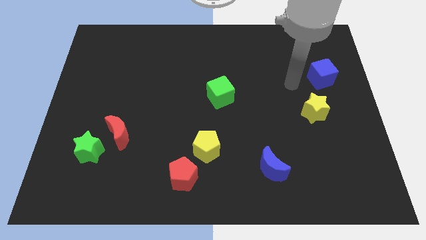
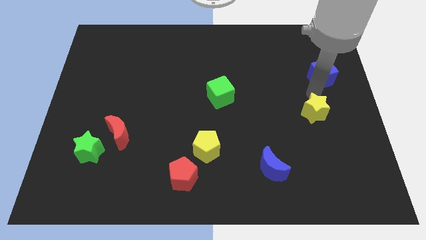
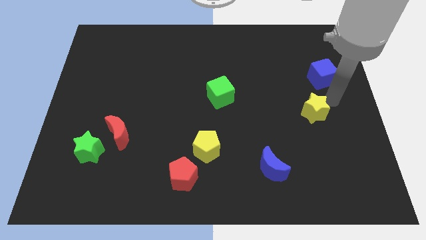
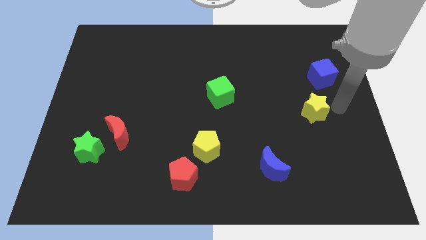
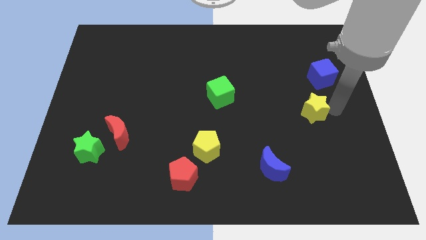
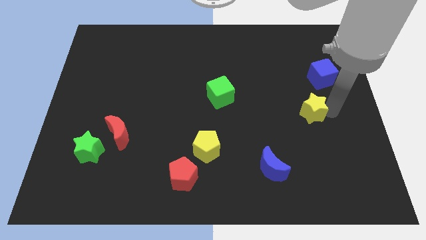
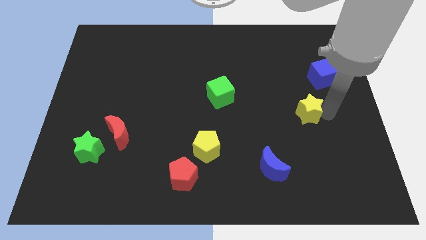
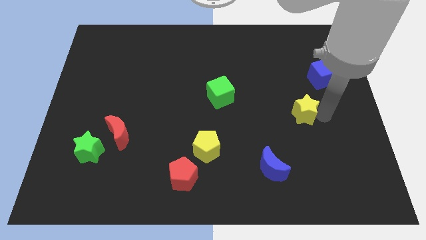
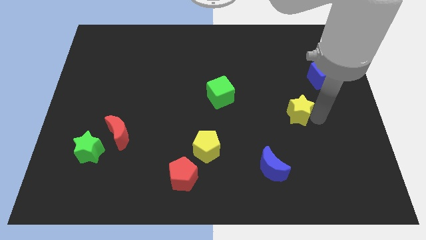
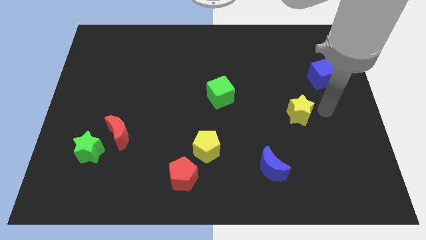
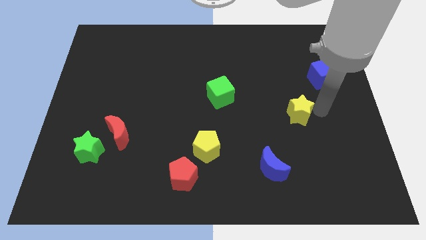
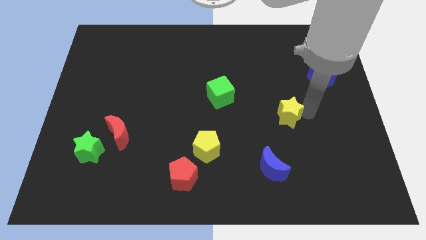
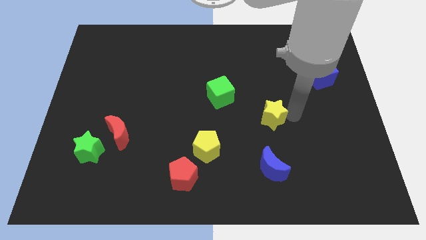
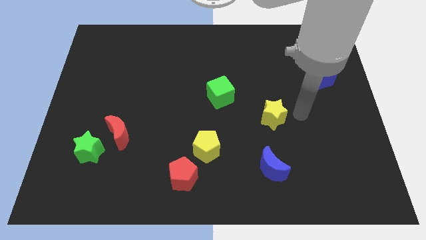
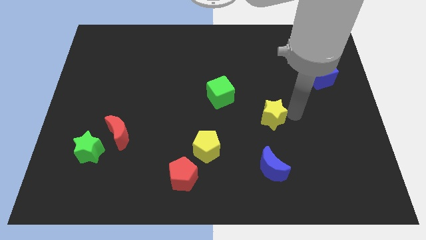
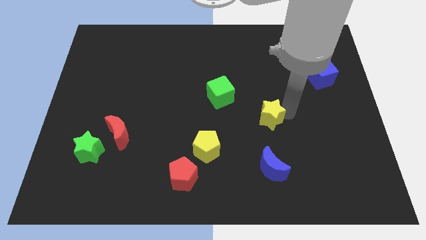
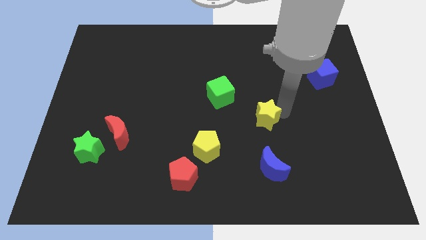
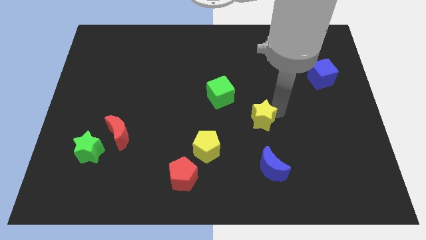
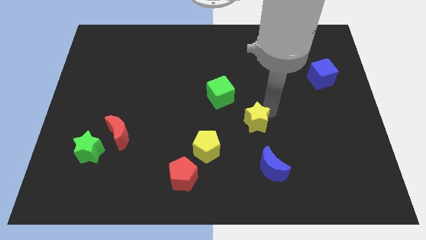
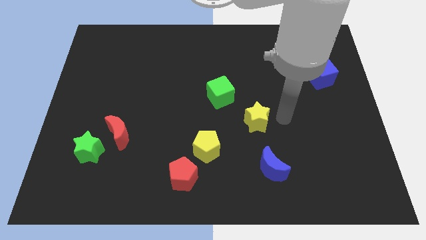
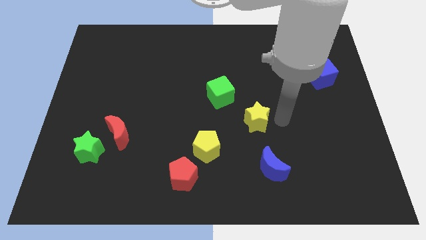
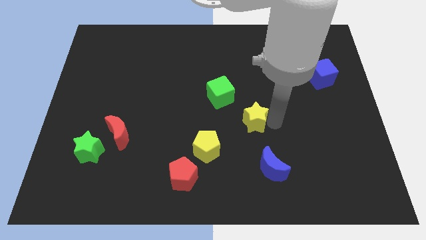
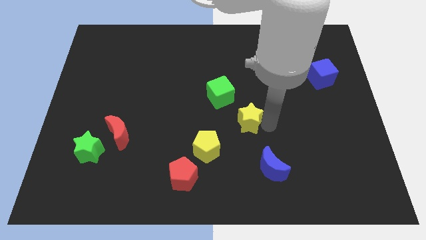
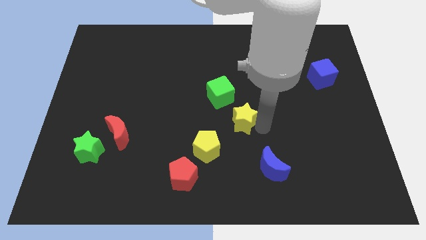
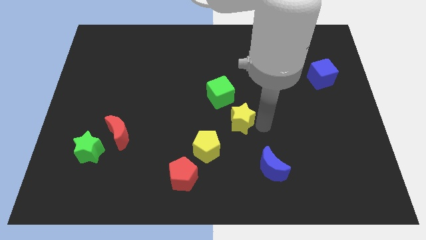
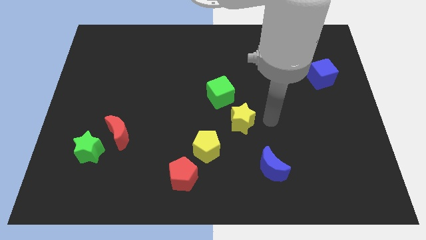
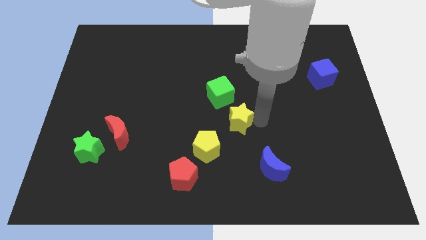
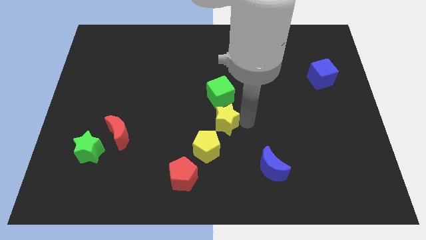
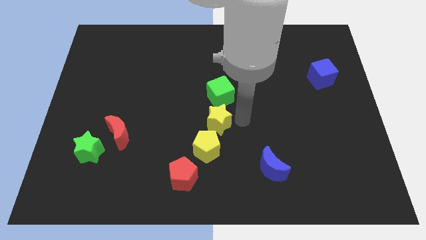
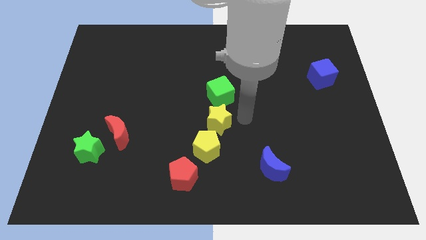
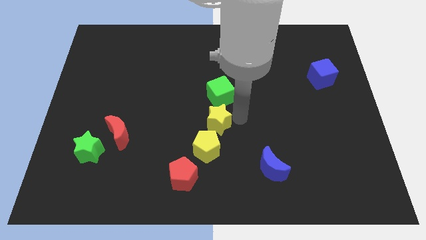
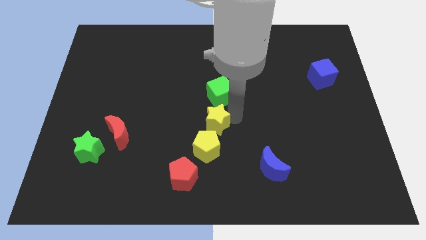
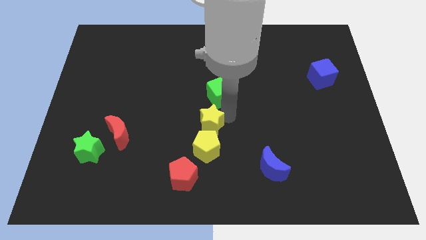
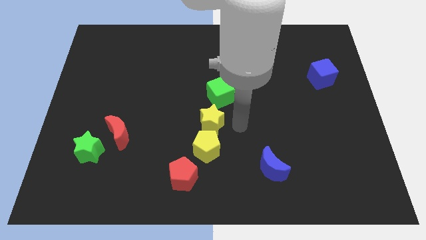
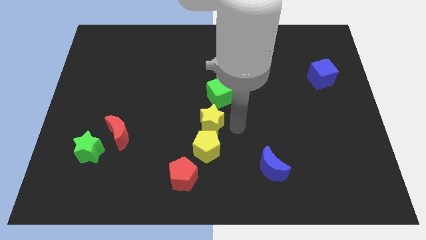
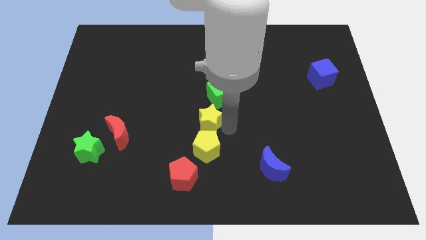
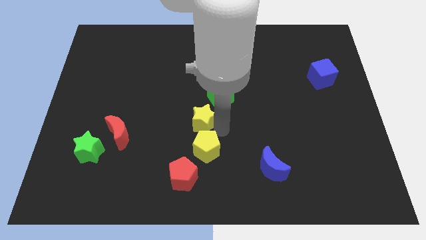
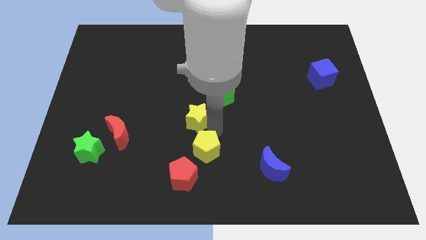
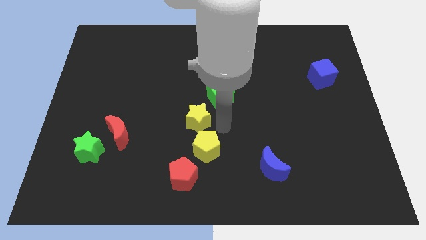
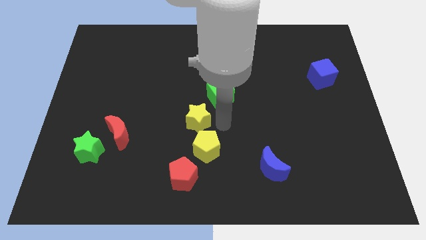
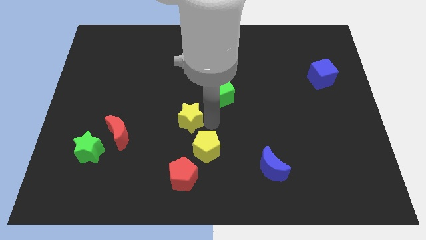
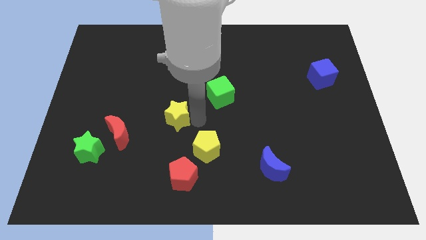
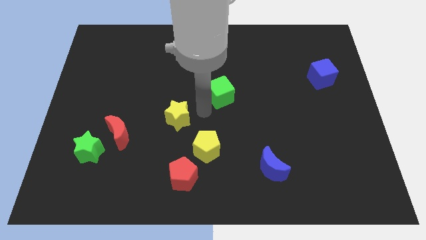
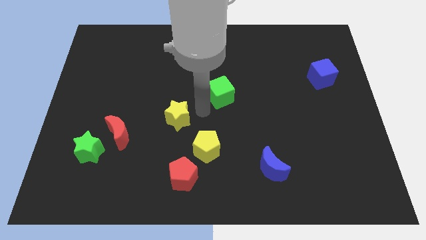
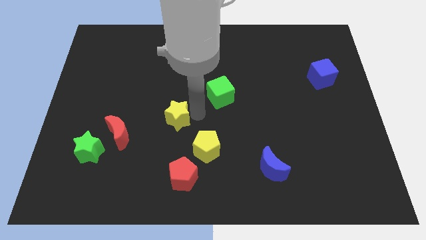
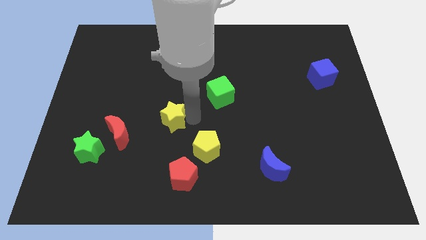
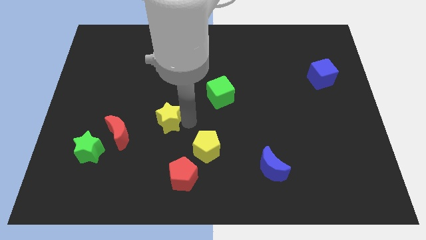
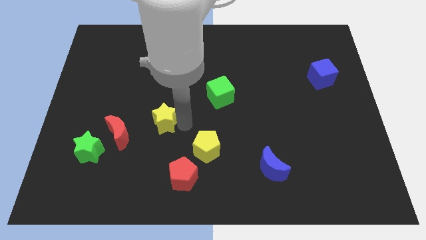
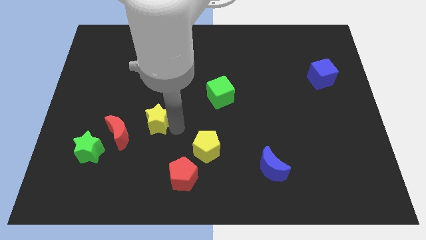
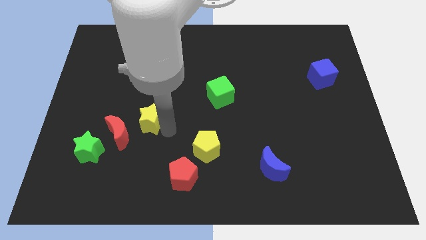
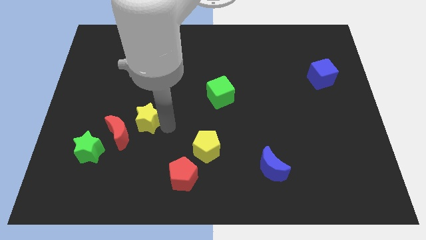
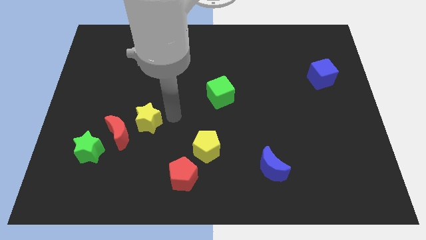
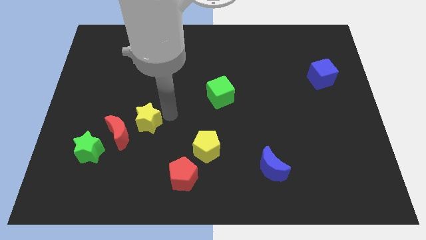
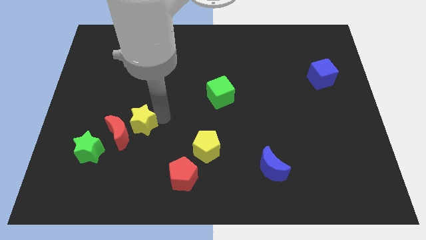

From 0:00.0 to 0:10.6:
move the yellow star next to the red moon

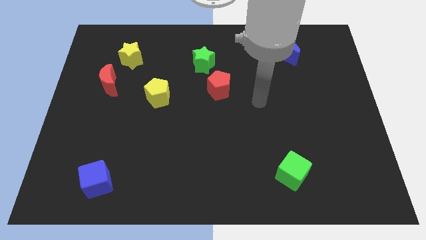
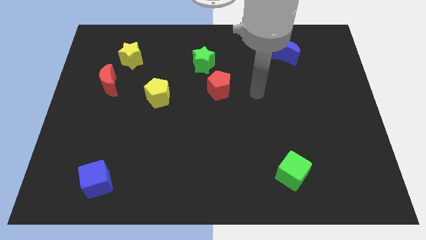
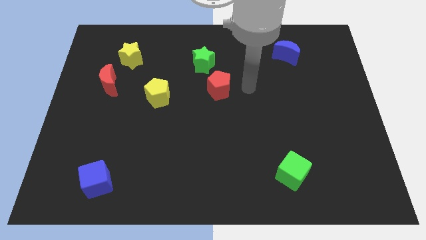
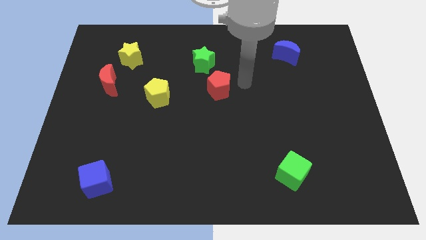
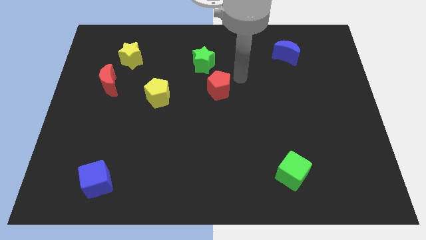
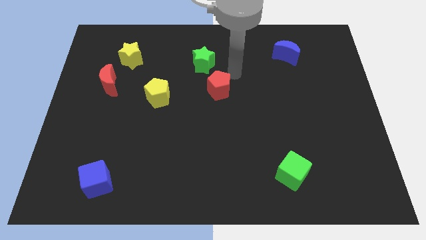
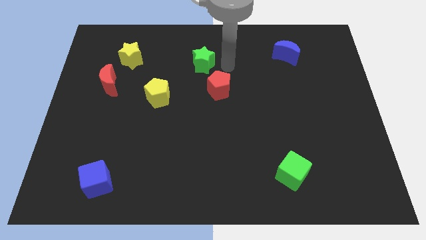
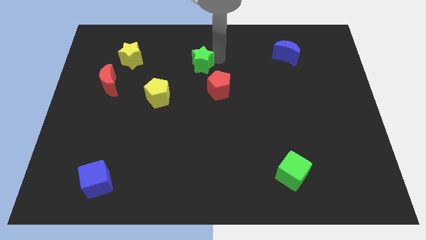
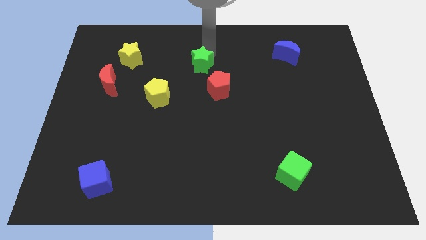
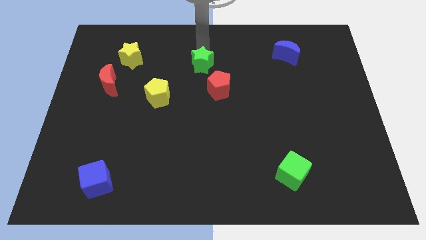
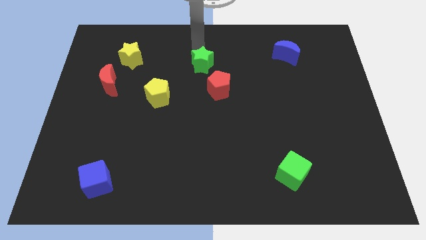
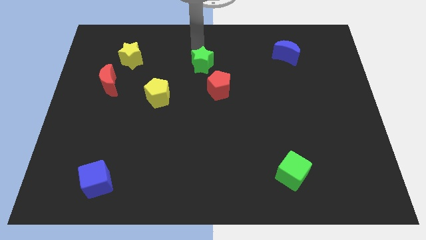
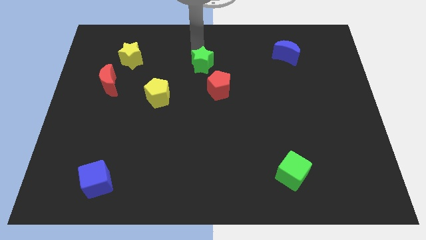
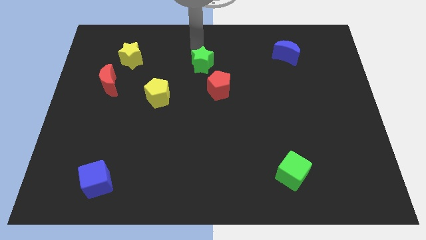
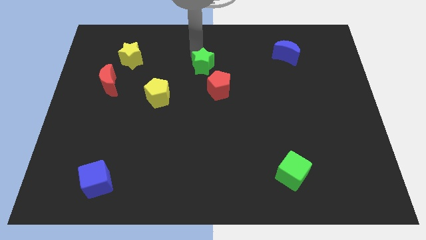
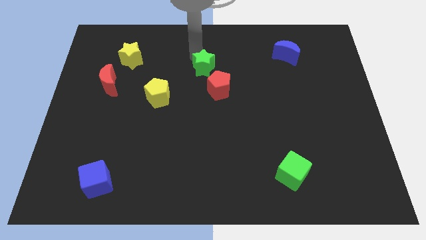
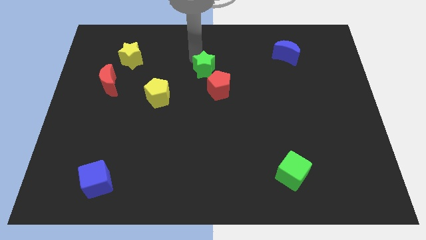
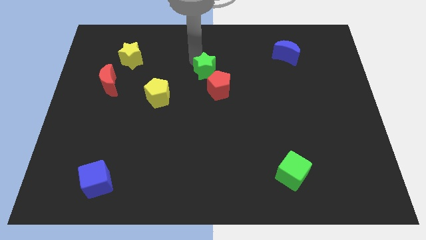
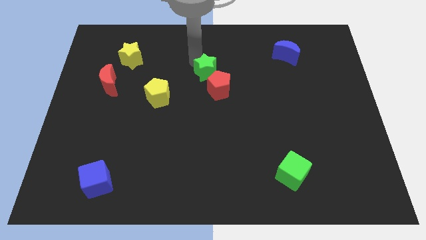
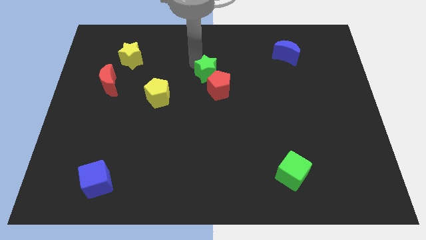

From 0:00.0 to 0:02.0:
move the green star towards the red pentagon

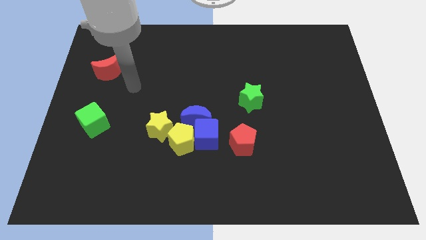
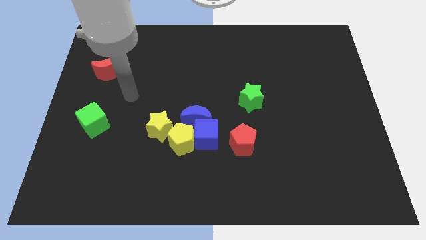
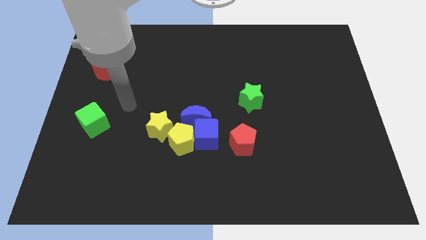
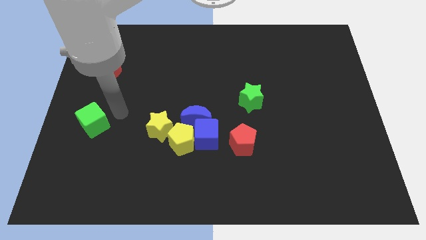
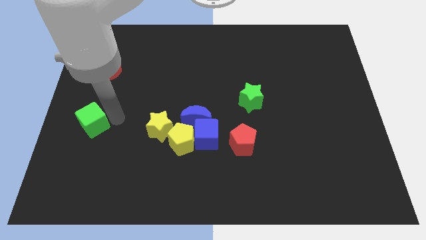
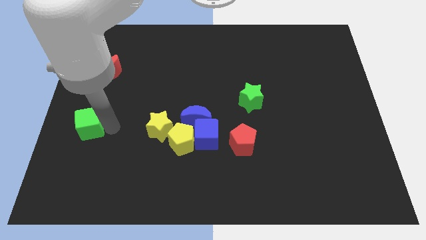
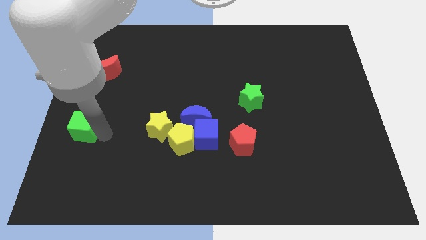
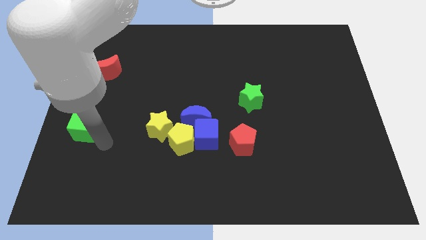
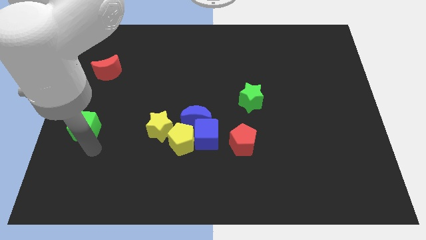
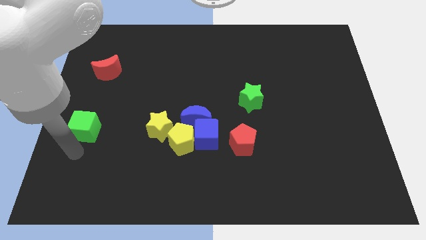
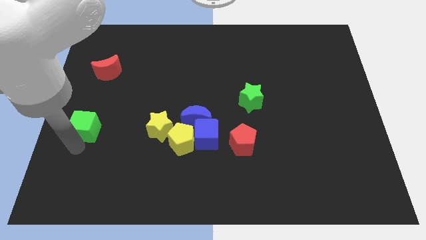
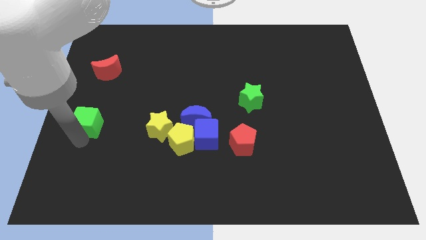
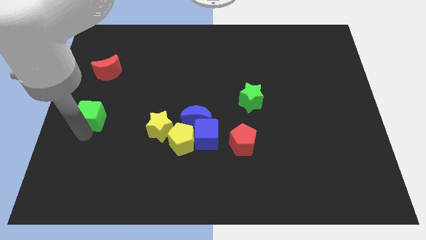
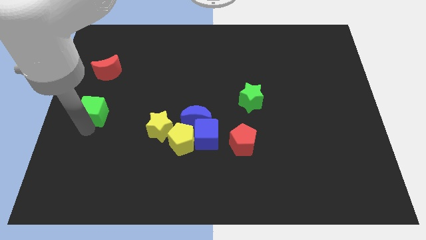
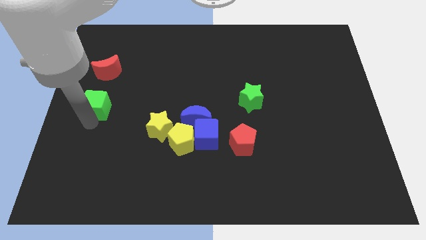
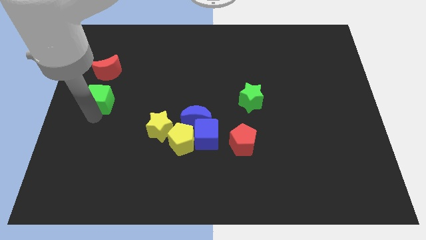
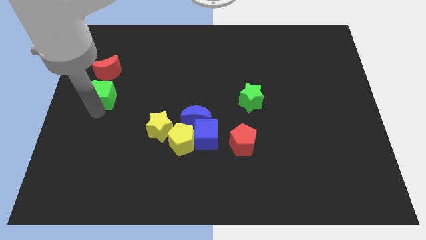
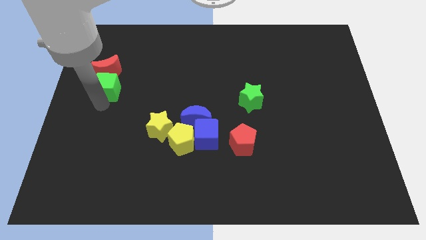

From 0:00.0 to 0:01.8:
slide the green cube towards the red moon
